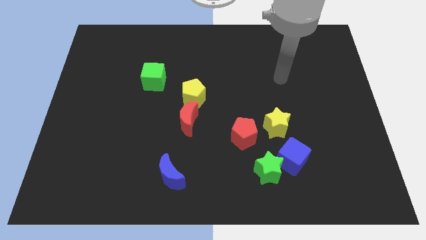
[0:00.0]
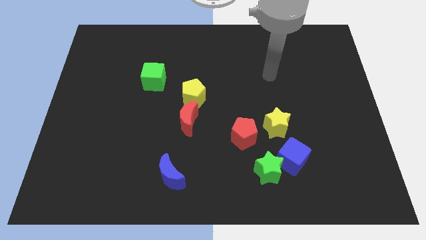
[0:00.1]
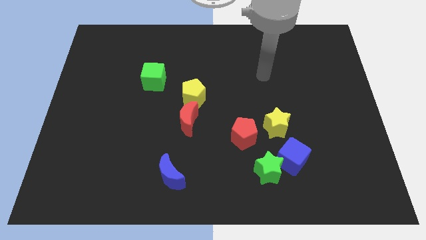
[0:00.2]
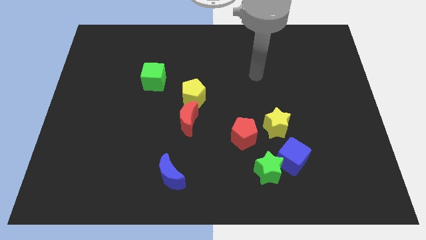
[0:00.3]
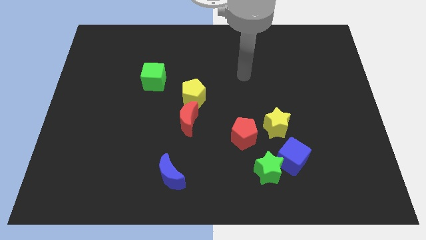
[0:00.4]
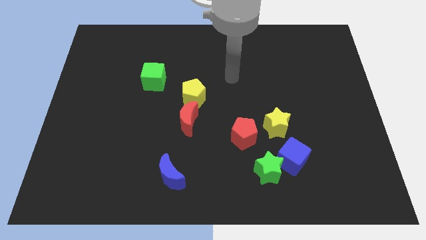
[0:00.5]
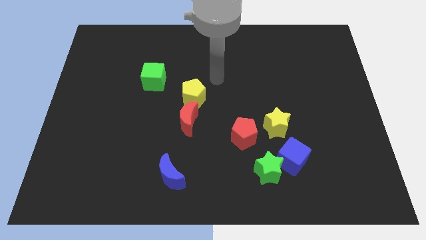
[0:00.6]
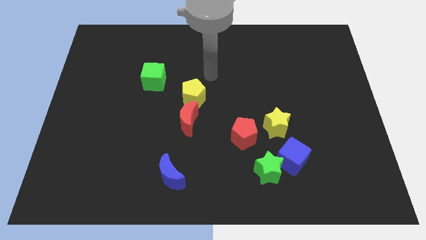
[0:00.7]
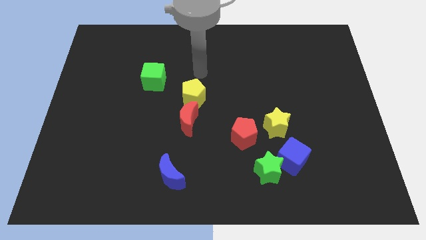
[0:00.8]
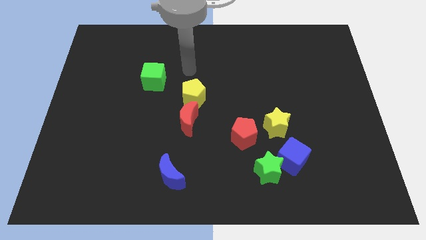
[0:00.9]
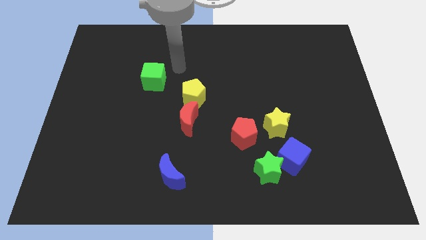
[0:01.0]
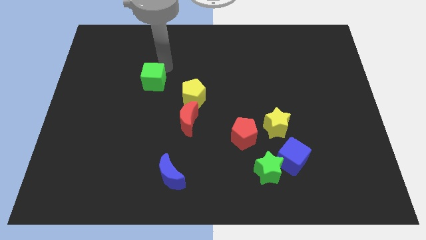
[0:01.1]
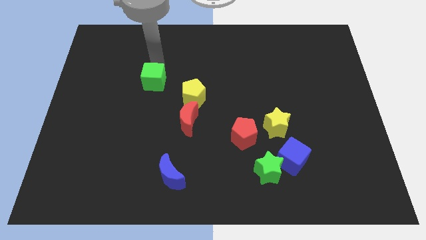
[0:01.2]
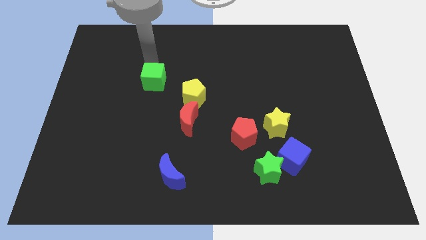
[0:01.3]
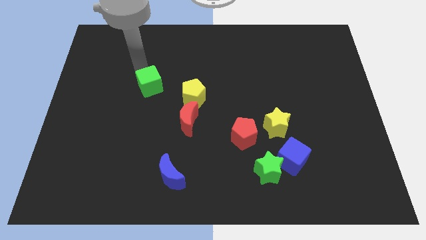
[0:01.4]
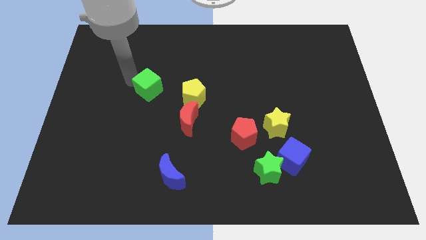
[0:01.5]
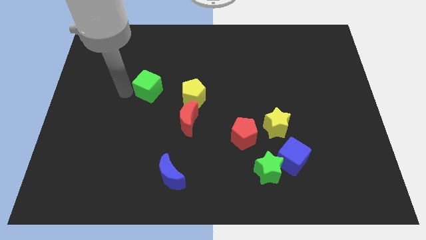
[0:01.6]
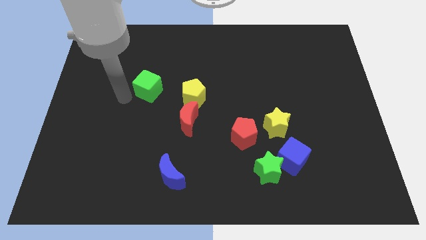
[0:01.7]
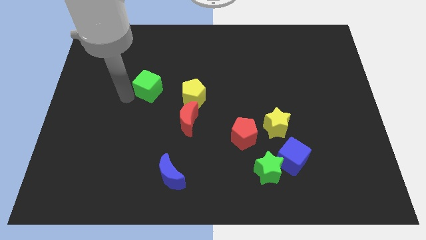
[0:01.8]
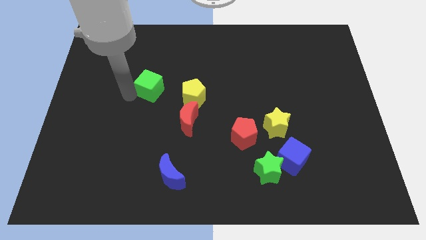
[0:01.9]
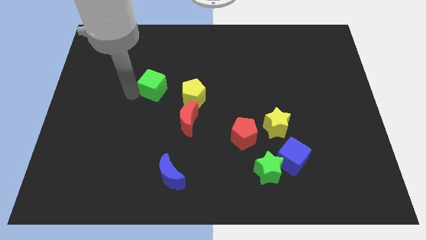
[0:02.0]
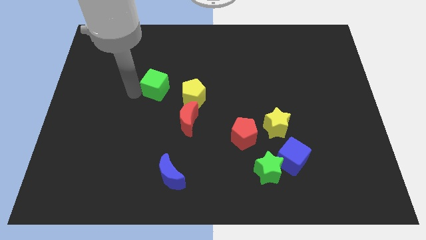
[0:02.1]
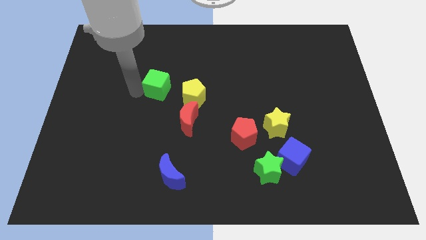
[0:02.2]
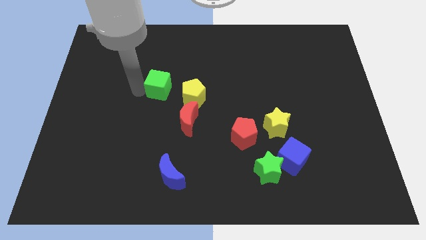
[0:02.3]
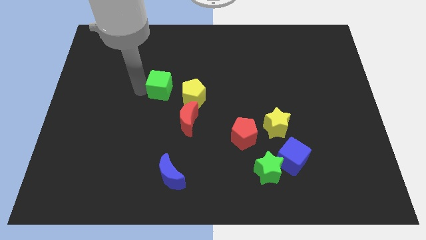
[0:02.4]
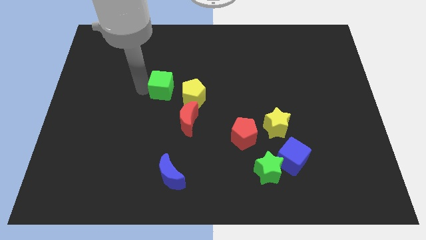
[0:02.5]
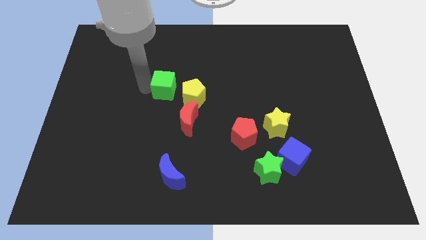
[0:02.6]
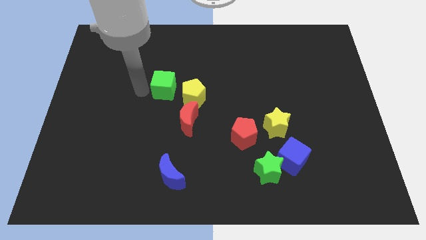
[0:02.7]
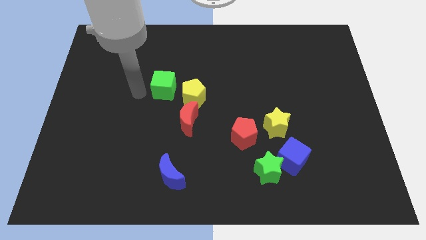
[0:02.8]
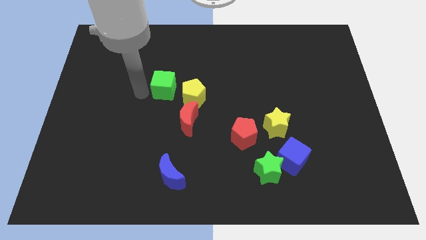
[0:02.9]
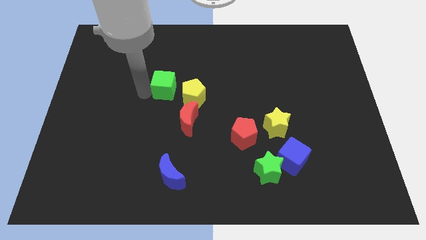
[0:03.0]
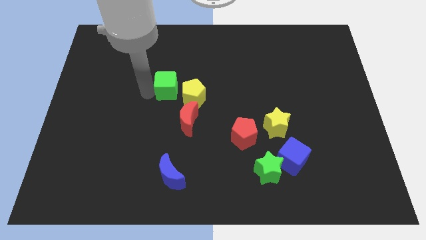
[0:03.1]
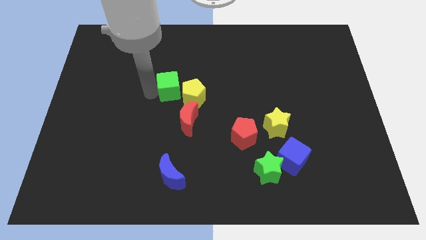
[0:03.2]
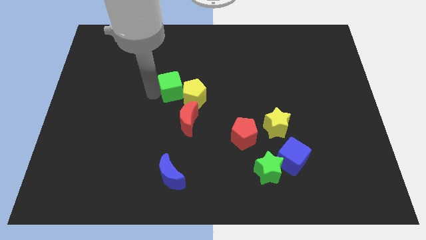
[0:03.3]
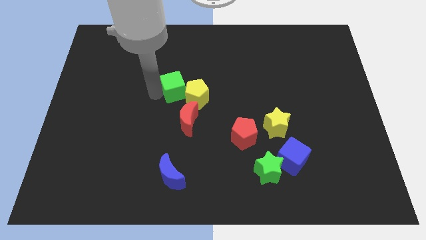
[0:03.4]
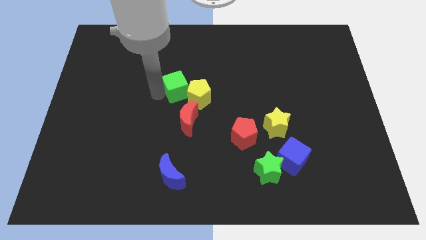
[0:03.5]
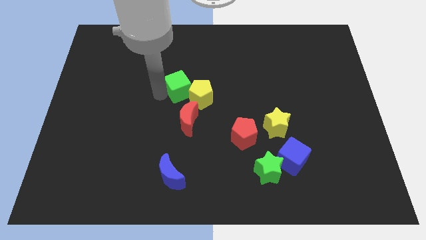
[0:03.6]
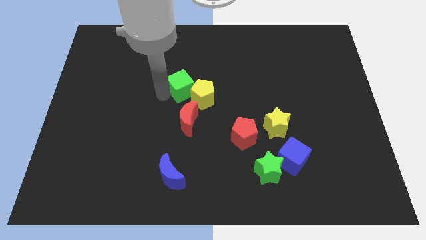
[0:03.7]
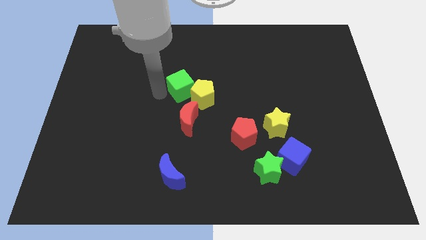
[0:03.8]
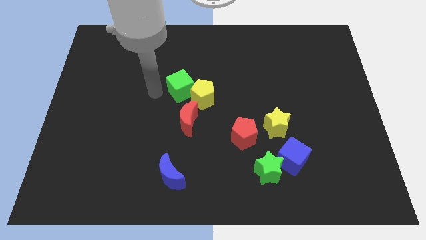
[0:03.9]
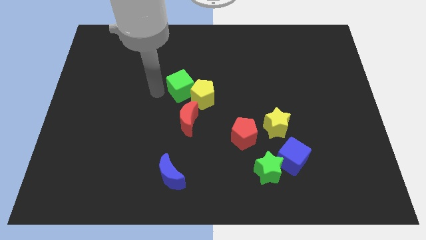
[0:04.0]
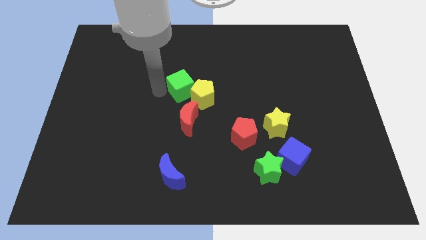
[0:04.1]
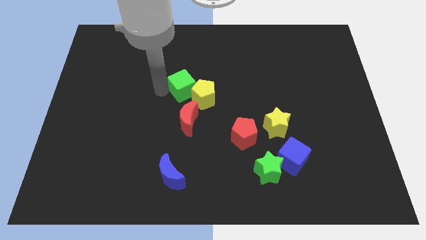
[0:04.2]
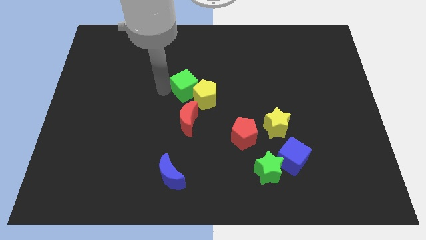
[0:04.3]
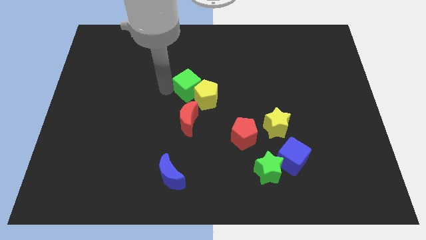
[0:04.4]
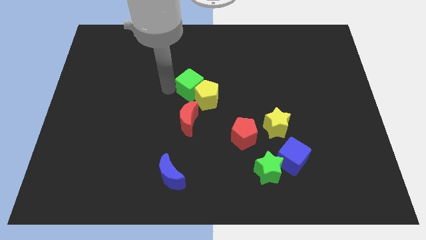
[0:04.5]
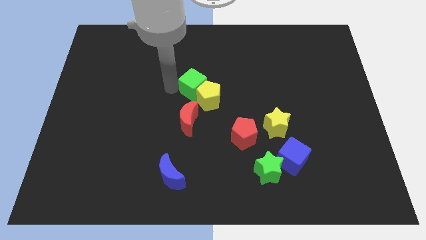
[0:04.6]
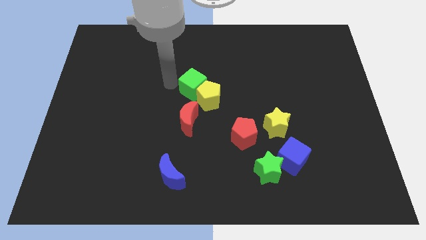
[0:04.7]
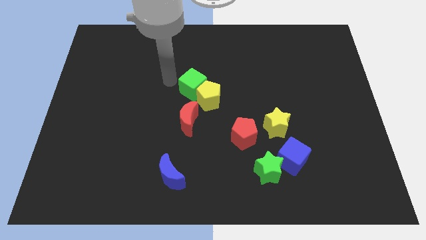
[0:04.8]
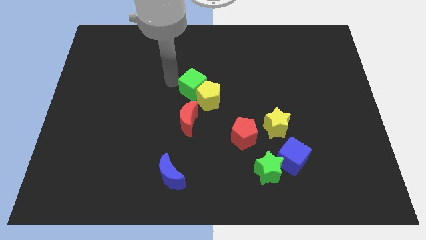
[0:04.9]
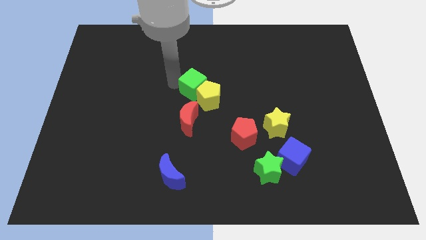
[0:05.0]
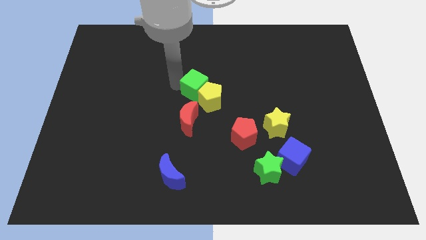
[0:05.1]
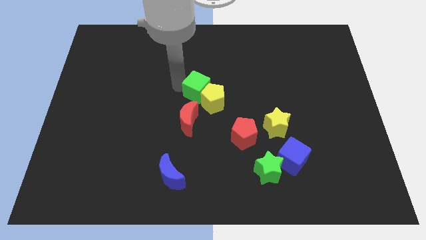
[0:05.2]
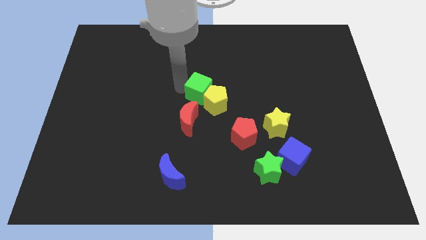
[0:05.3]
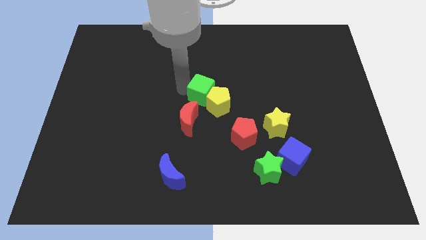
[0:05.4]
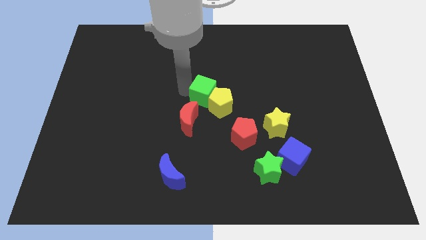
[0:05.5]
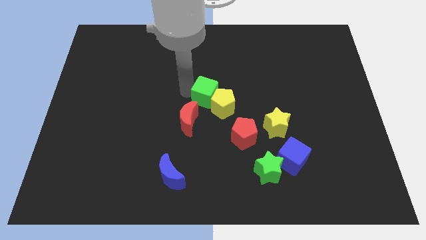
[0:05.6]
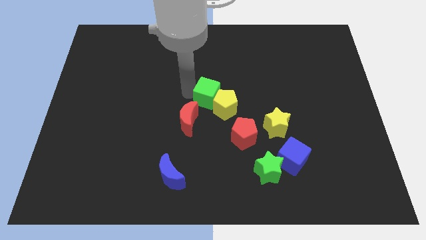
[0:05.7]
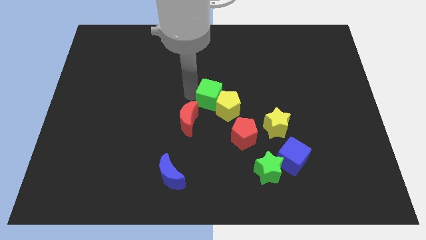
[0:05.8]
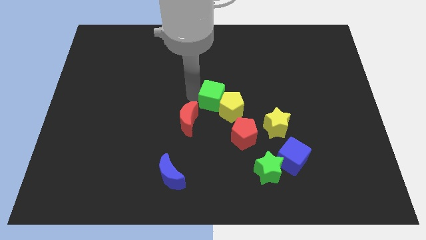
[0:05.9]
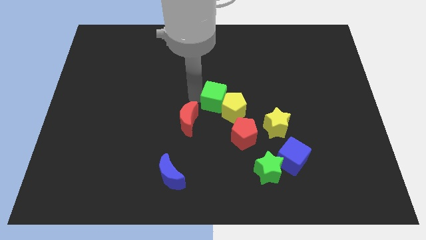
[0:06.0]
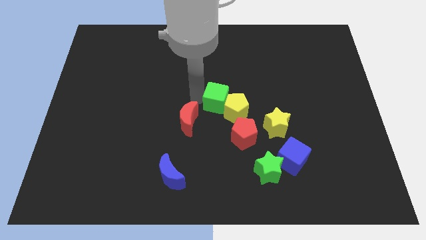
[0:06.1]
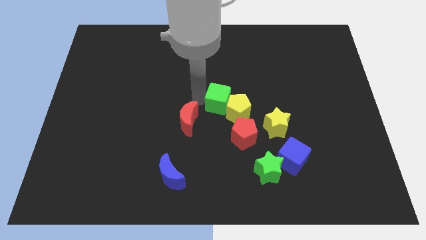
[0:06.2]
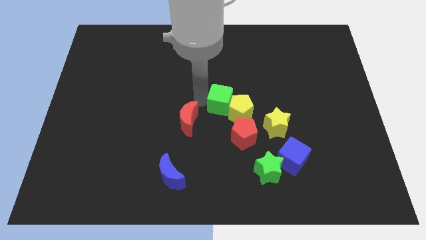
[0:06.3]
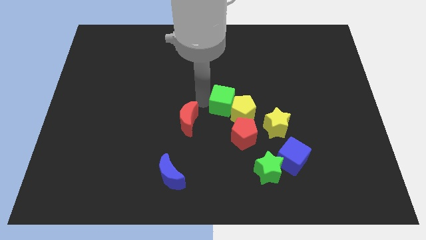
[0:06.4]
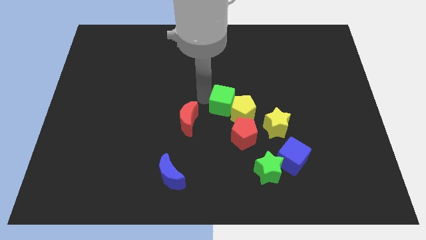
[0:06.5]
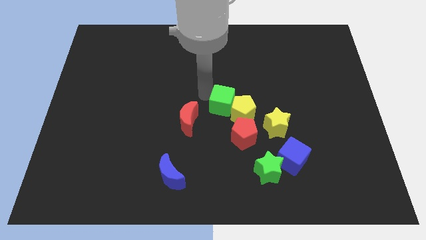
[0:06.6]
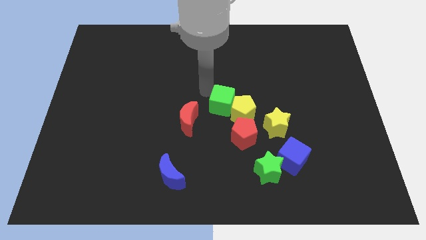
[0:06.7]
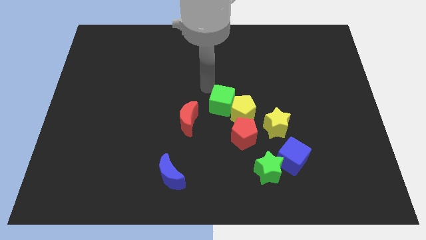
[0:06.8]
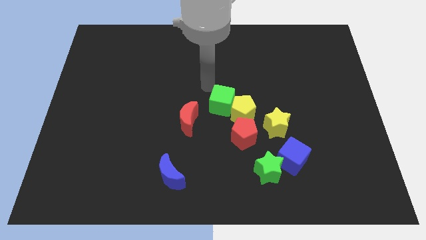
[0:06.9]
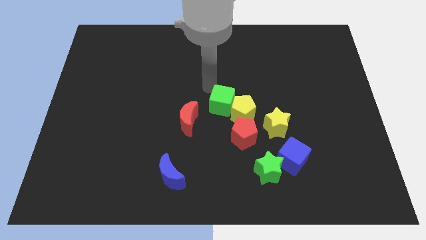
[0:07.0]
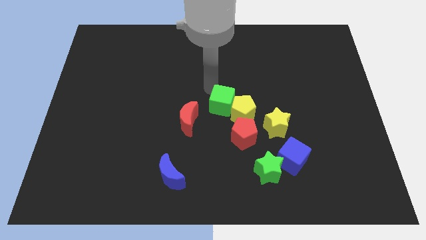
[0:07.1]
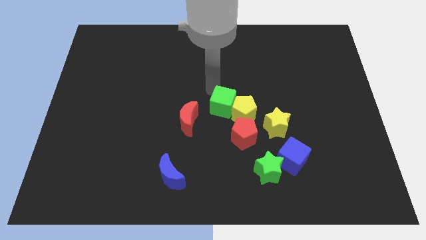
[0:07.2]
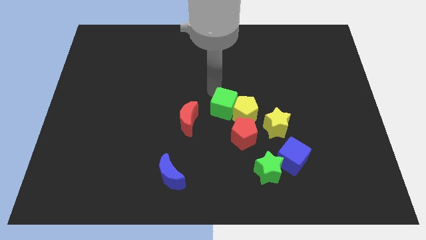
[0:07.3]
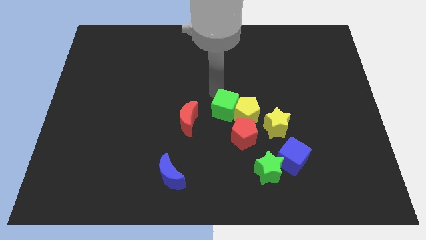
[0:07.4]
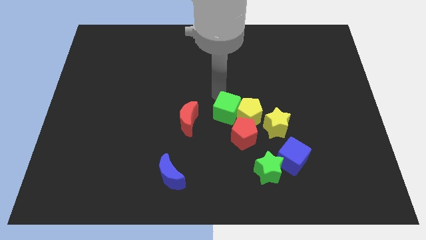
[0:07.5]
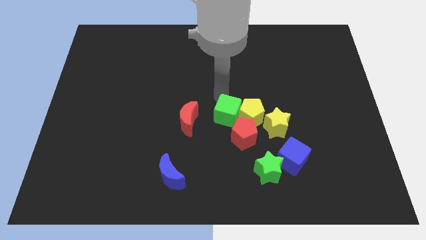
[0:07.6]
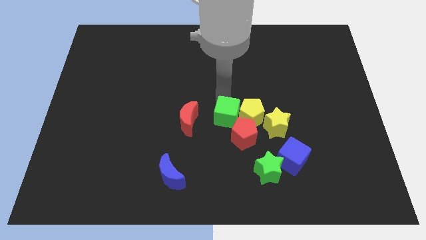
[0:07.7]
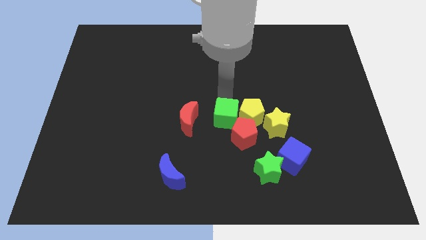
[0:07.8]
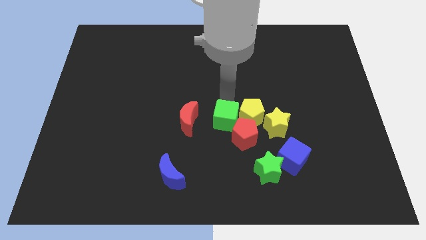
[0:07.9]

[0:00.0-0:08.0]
push the green cube to the red pentagon
